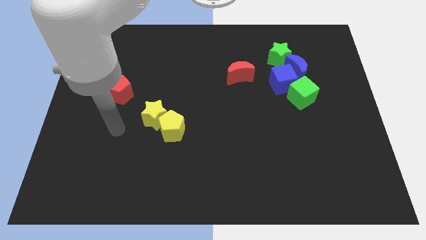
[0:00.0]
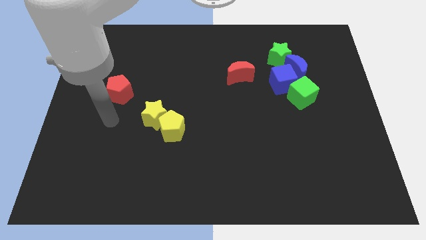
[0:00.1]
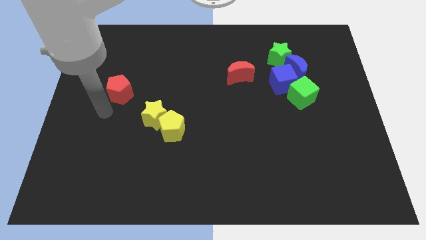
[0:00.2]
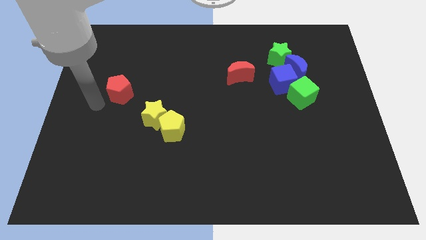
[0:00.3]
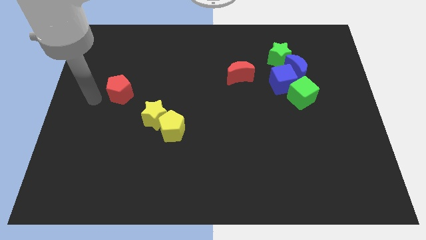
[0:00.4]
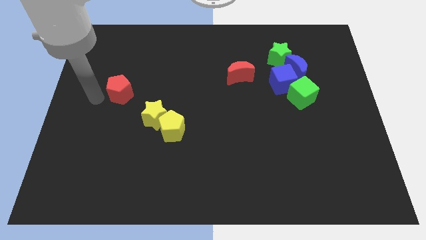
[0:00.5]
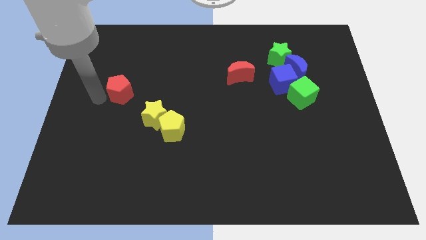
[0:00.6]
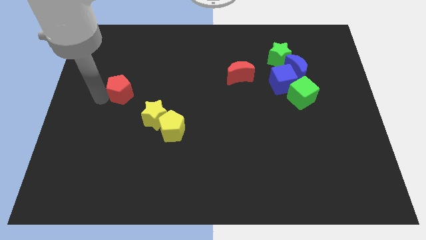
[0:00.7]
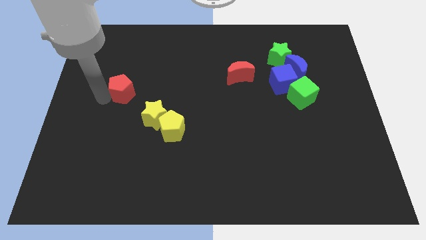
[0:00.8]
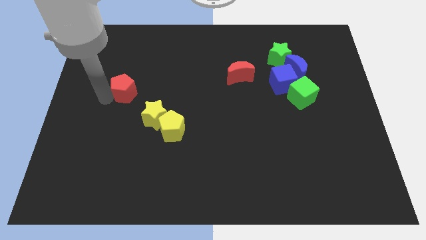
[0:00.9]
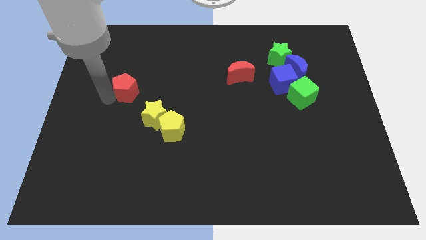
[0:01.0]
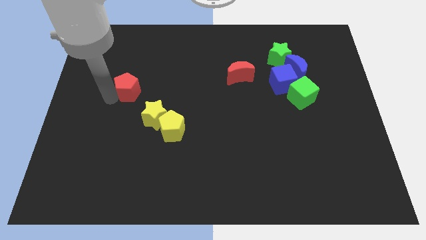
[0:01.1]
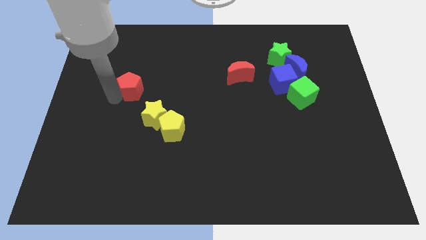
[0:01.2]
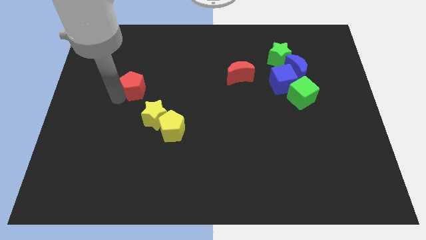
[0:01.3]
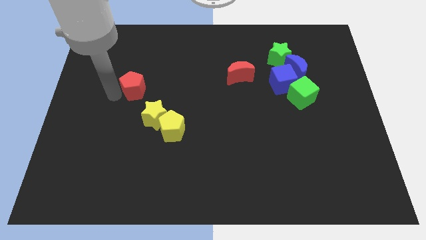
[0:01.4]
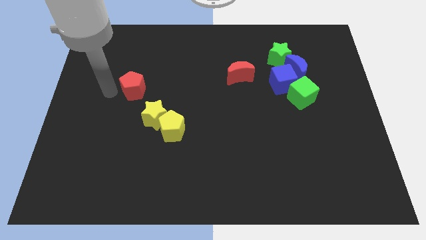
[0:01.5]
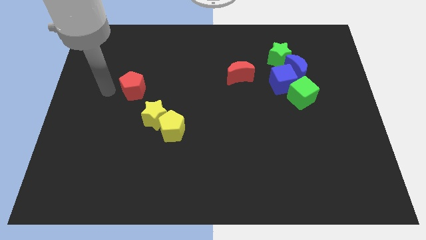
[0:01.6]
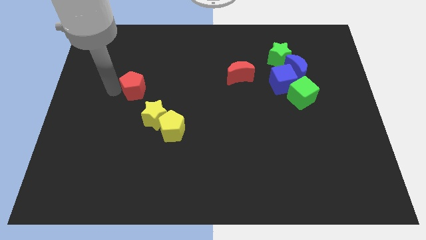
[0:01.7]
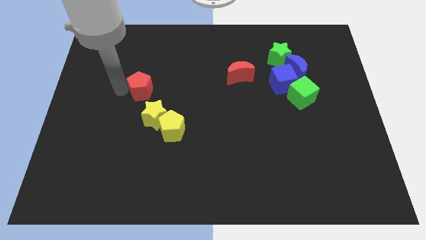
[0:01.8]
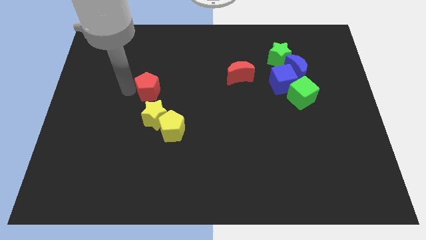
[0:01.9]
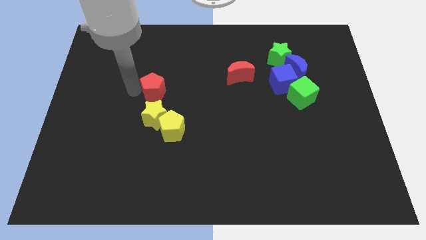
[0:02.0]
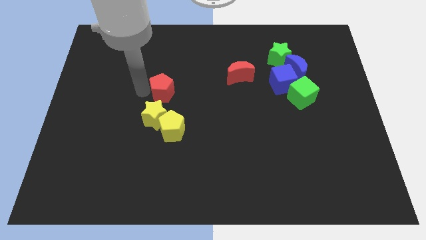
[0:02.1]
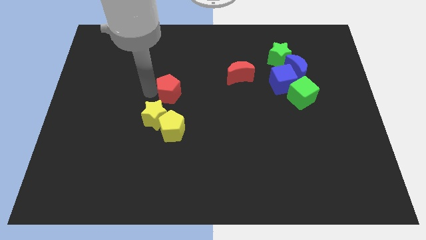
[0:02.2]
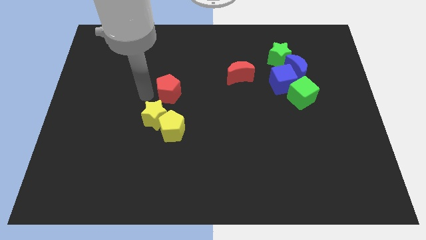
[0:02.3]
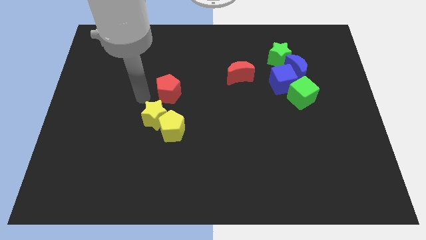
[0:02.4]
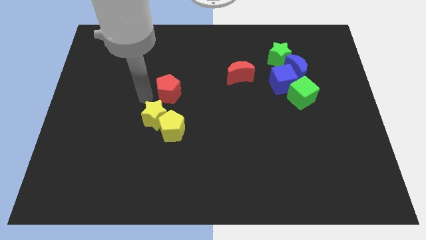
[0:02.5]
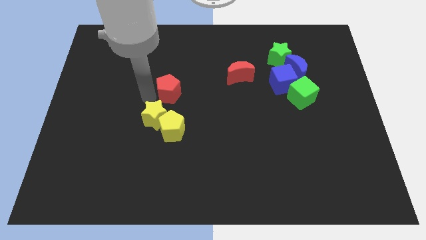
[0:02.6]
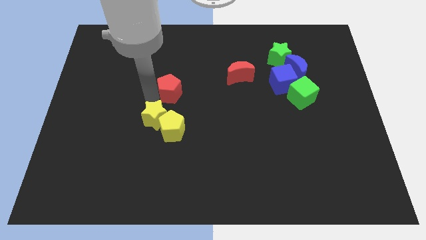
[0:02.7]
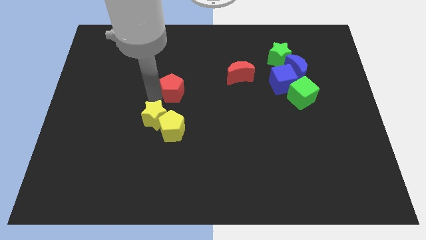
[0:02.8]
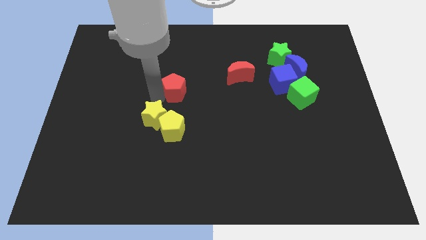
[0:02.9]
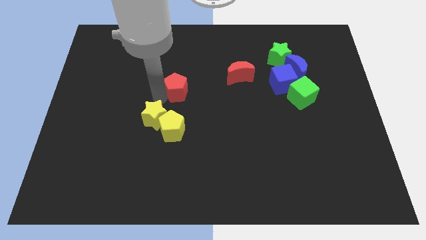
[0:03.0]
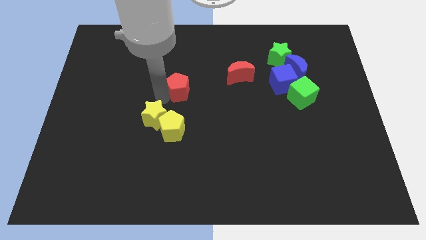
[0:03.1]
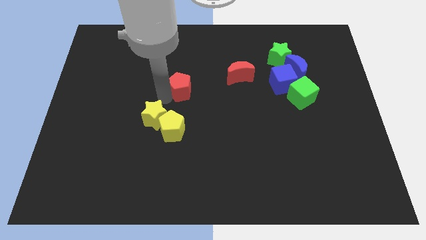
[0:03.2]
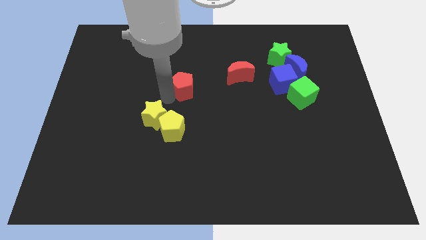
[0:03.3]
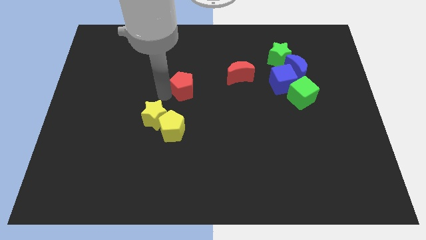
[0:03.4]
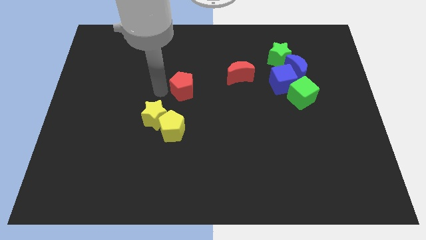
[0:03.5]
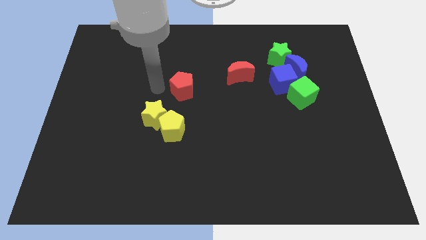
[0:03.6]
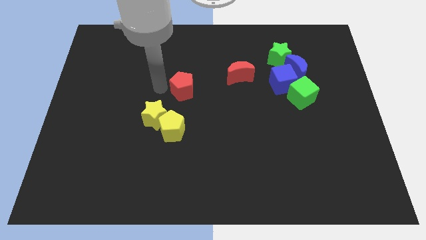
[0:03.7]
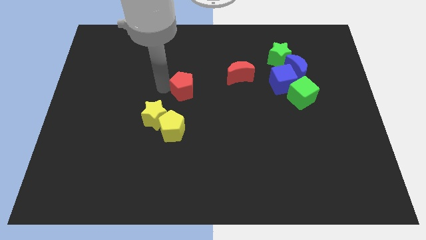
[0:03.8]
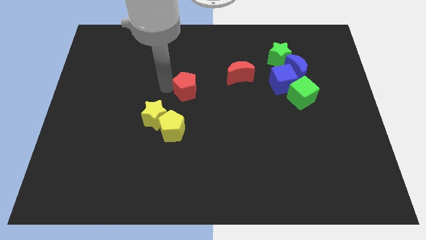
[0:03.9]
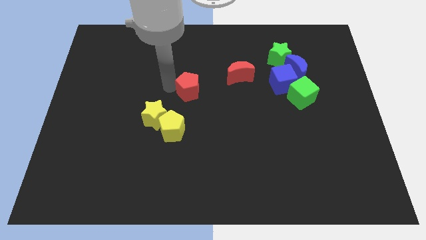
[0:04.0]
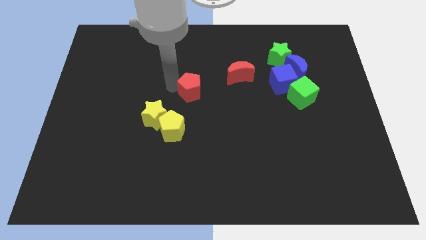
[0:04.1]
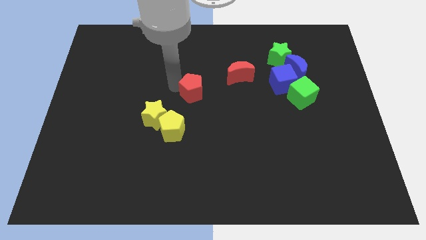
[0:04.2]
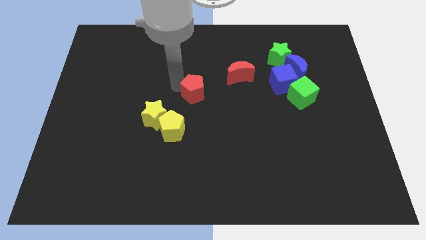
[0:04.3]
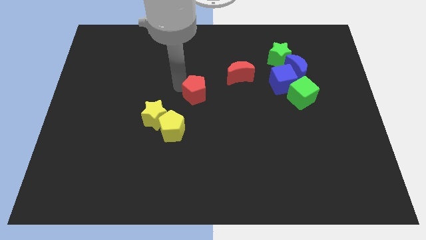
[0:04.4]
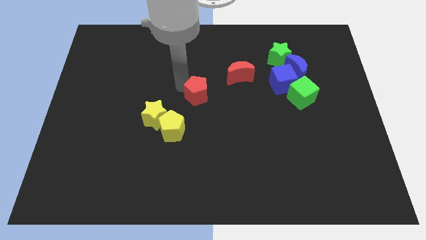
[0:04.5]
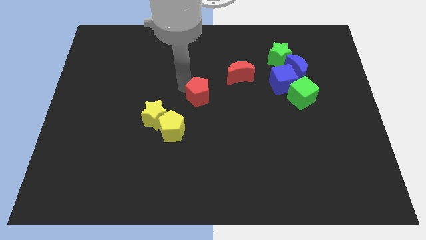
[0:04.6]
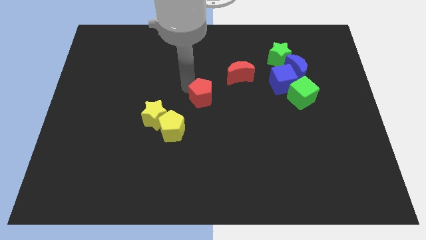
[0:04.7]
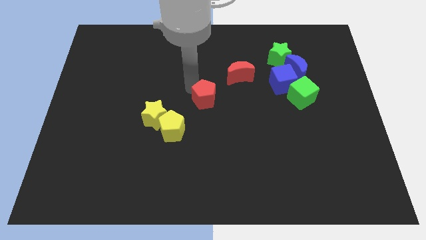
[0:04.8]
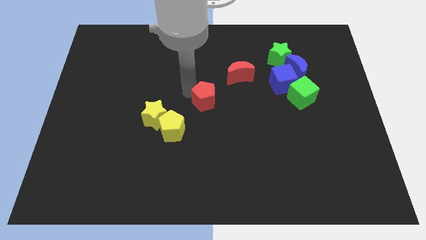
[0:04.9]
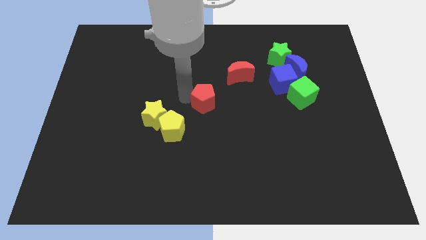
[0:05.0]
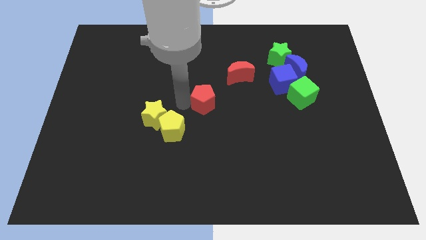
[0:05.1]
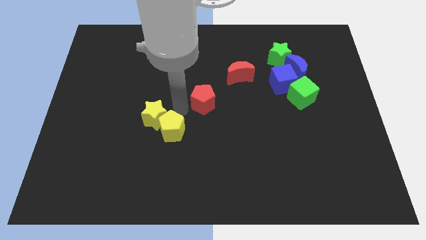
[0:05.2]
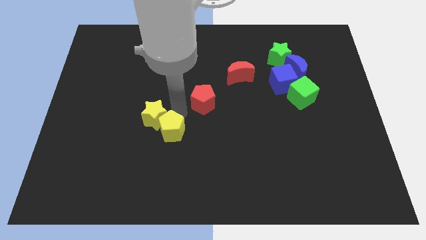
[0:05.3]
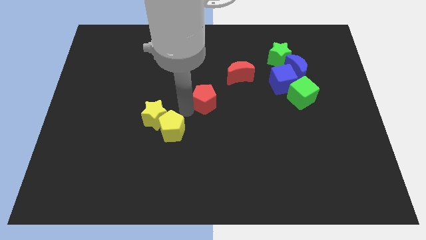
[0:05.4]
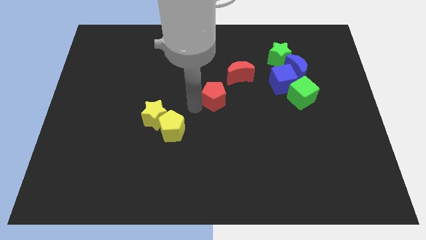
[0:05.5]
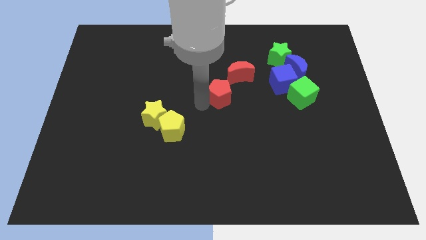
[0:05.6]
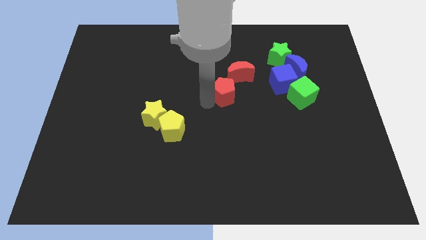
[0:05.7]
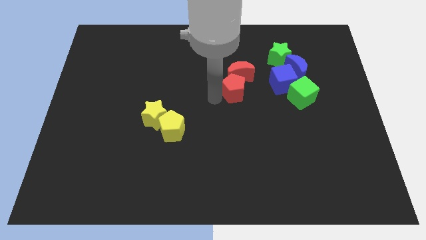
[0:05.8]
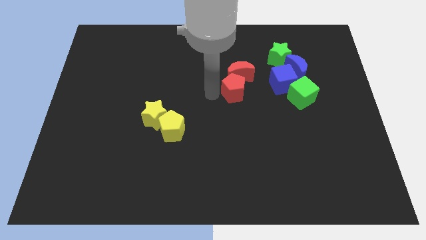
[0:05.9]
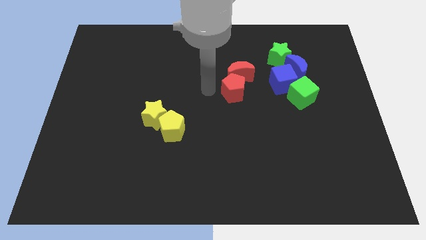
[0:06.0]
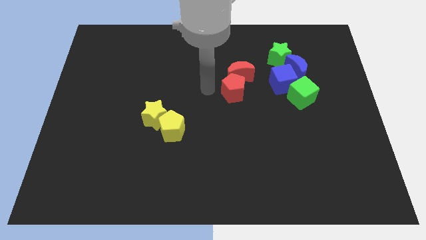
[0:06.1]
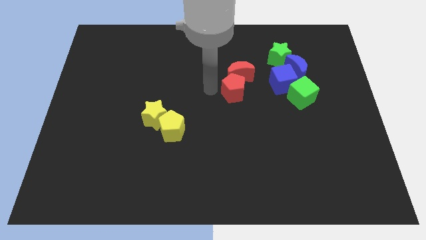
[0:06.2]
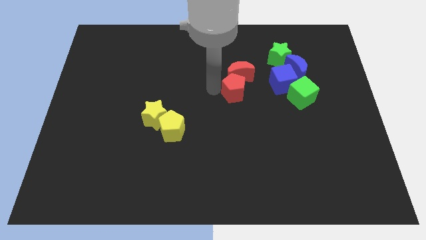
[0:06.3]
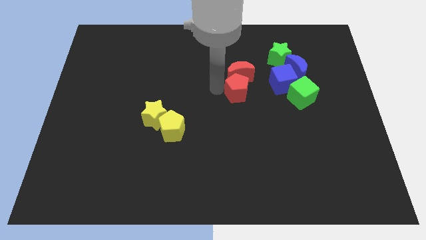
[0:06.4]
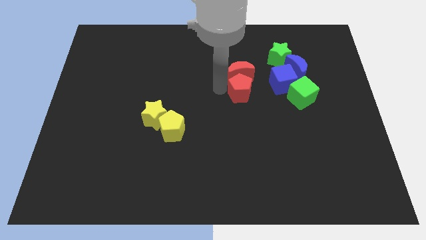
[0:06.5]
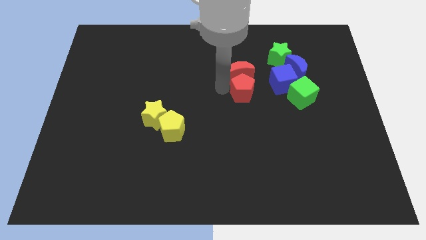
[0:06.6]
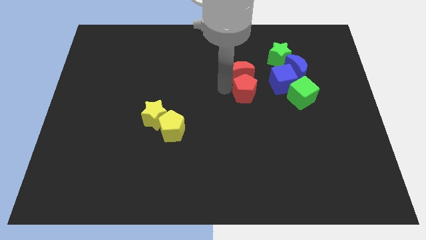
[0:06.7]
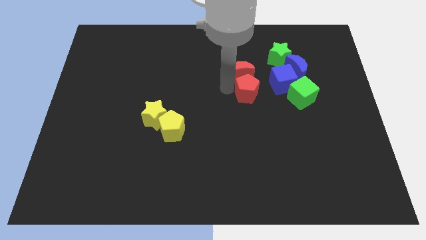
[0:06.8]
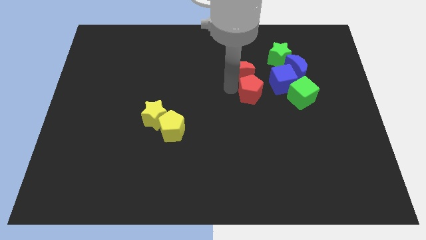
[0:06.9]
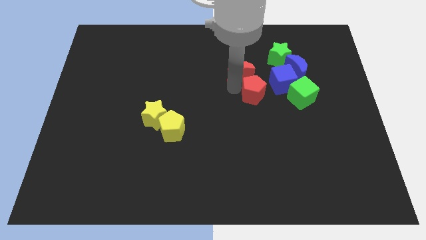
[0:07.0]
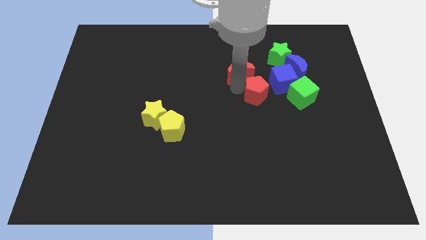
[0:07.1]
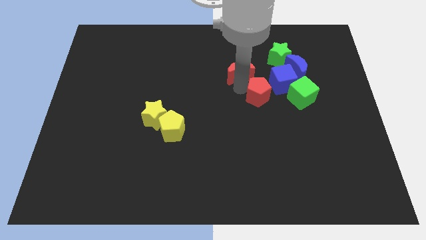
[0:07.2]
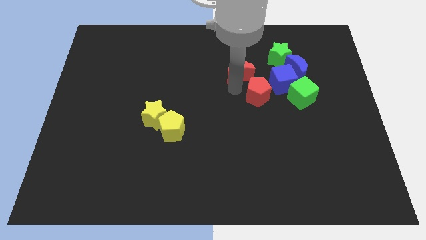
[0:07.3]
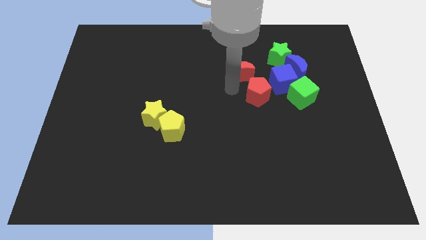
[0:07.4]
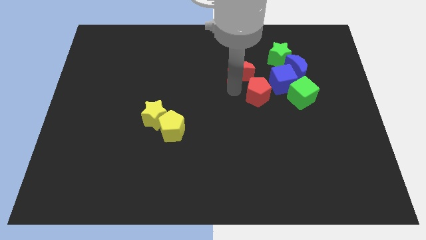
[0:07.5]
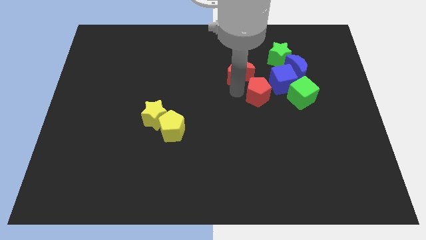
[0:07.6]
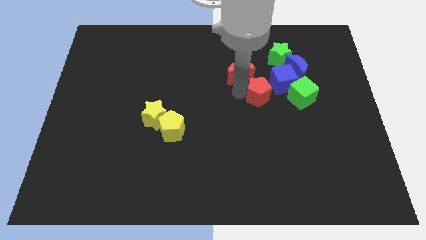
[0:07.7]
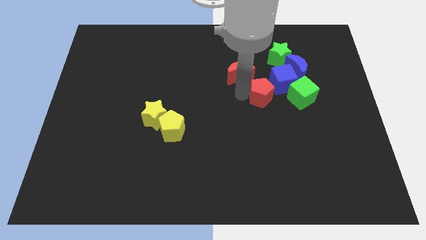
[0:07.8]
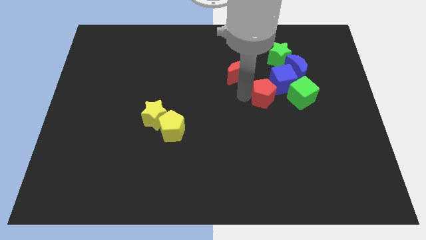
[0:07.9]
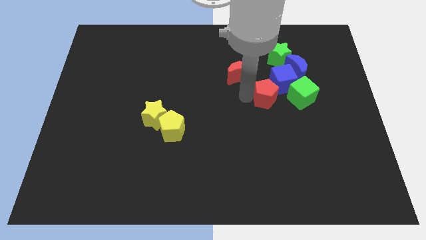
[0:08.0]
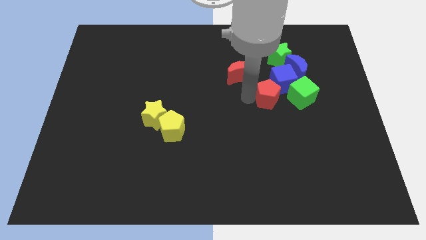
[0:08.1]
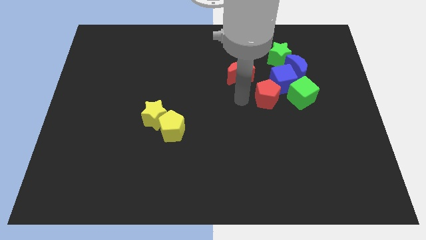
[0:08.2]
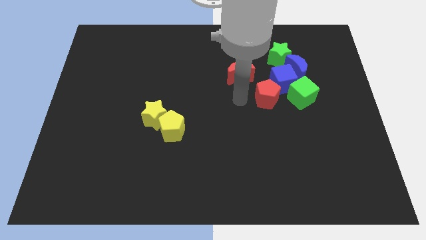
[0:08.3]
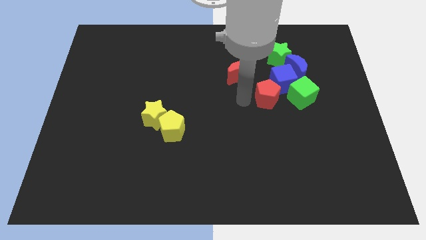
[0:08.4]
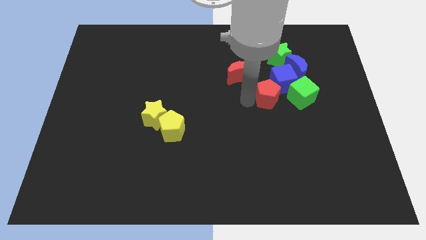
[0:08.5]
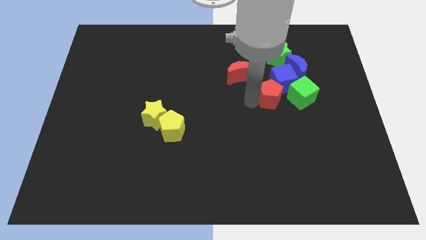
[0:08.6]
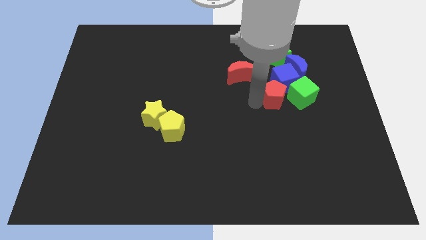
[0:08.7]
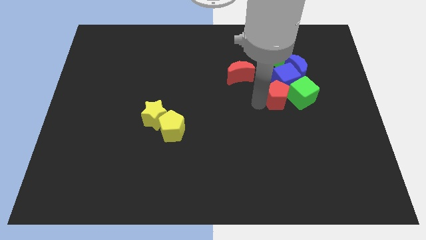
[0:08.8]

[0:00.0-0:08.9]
slide the red pentagon towards the green cube
